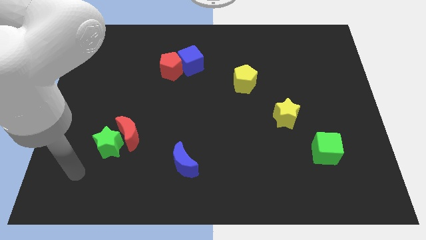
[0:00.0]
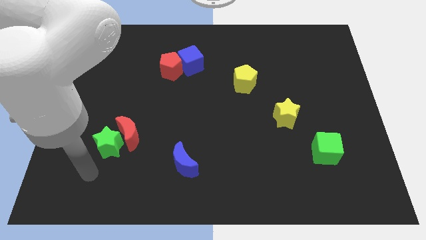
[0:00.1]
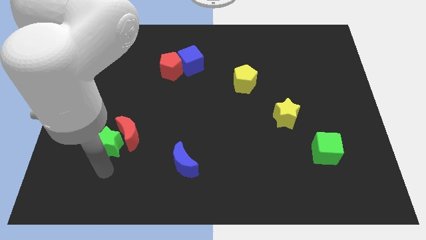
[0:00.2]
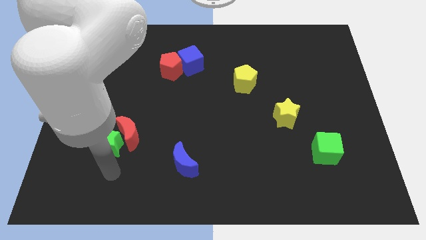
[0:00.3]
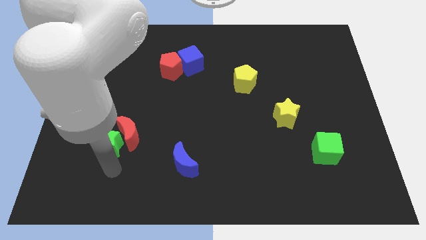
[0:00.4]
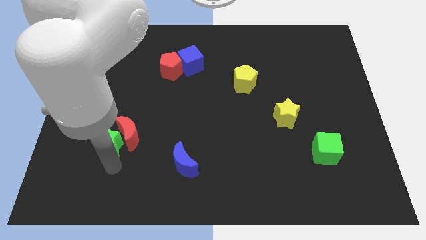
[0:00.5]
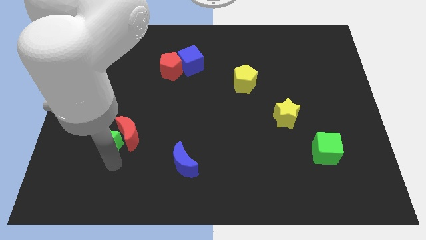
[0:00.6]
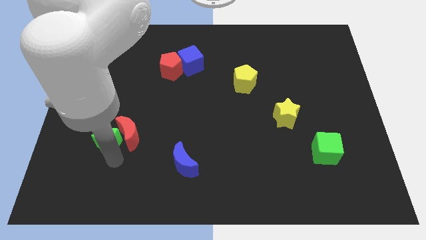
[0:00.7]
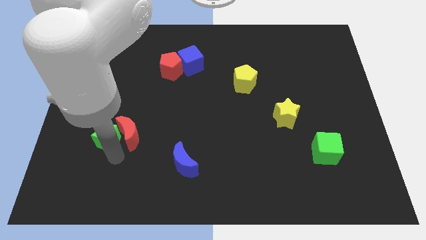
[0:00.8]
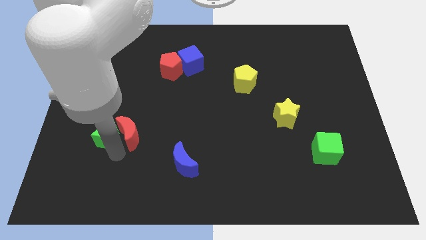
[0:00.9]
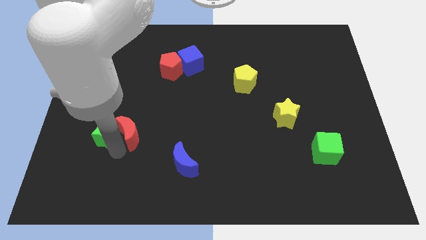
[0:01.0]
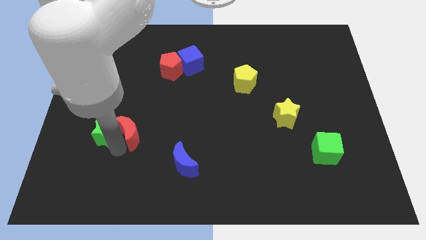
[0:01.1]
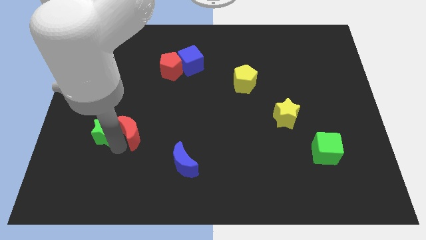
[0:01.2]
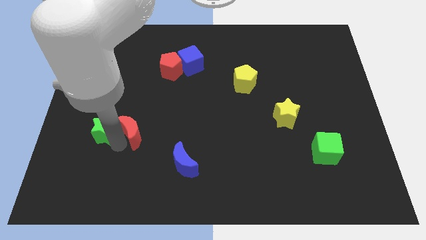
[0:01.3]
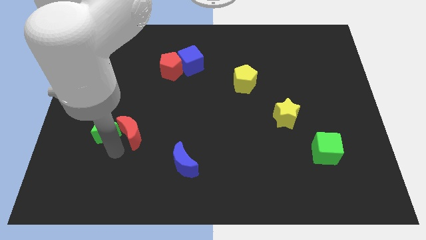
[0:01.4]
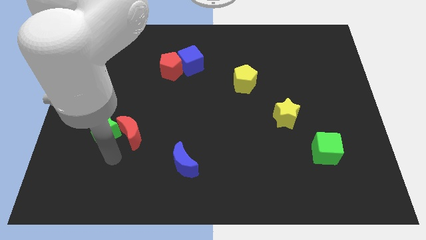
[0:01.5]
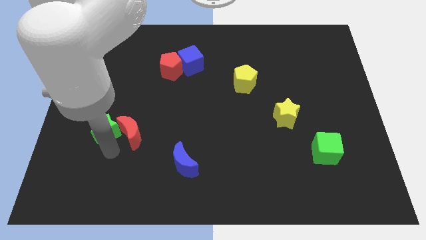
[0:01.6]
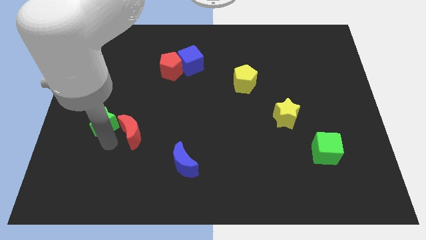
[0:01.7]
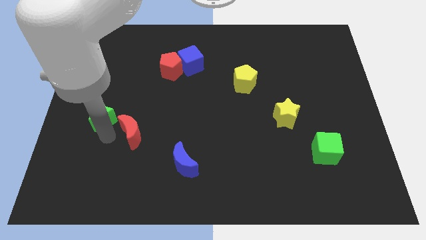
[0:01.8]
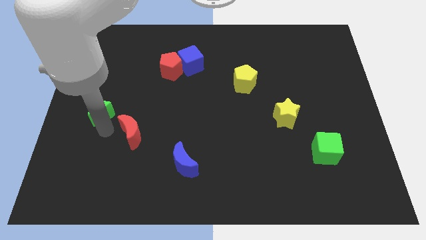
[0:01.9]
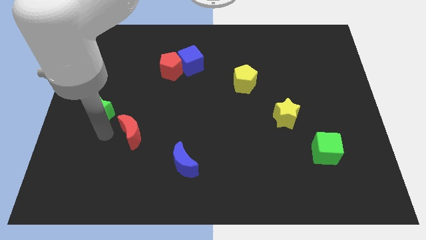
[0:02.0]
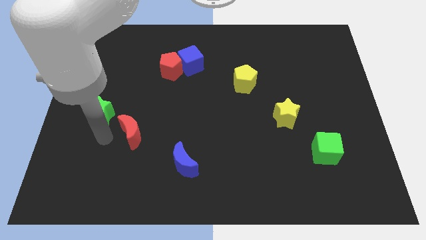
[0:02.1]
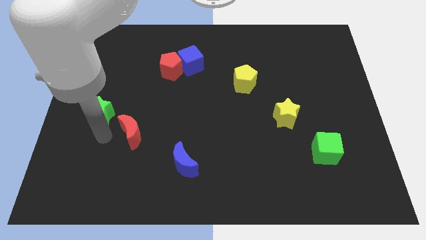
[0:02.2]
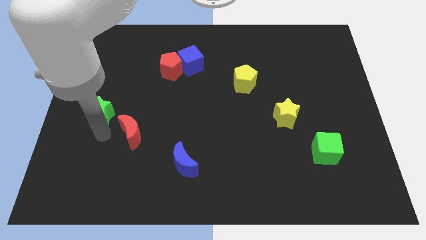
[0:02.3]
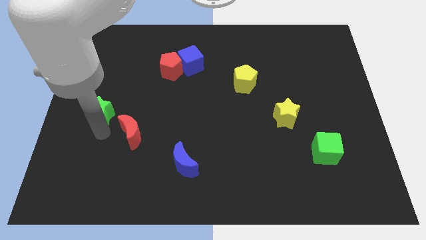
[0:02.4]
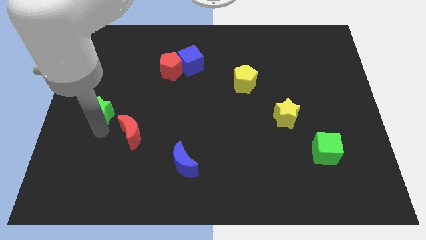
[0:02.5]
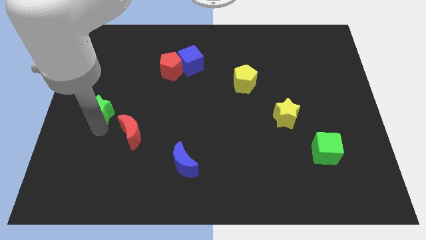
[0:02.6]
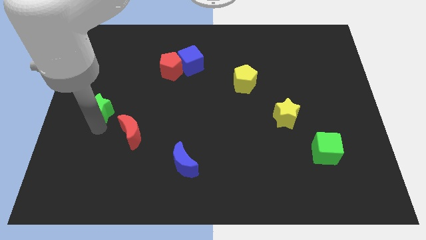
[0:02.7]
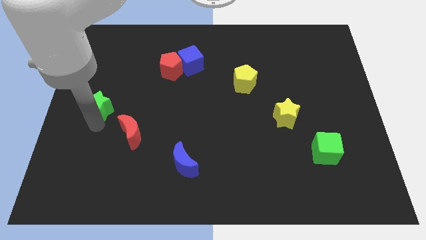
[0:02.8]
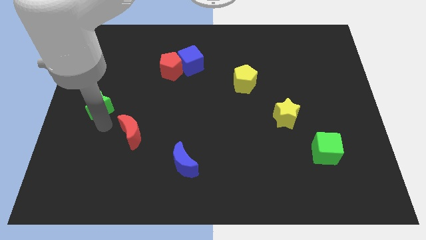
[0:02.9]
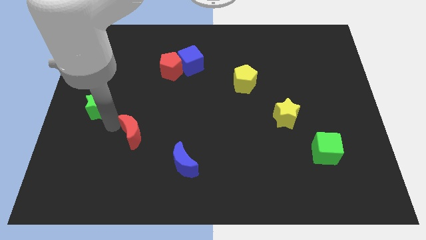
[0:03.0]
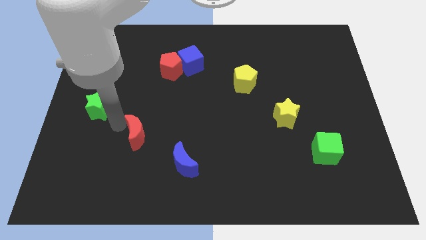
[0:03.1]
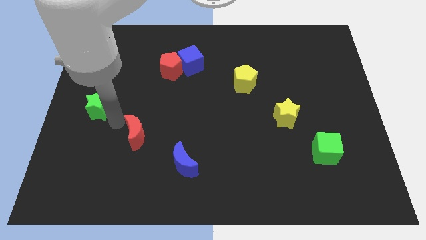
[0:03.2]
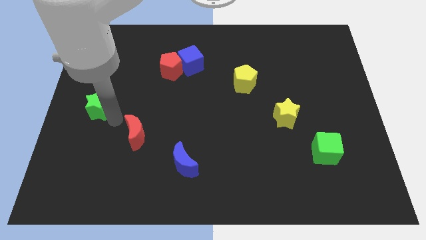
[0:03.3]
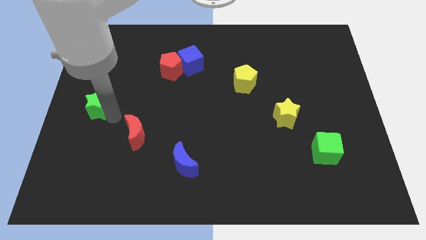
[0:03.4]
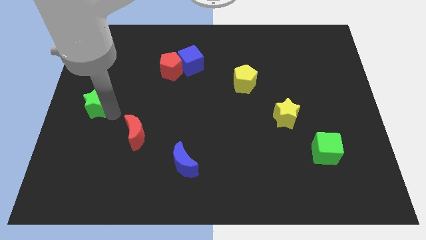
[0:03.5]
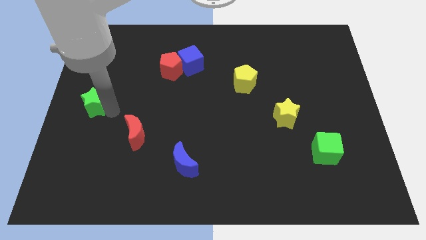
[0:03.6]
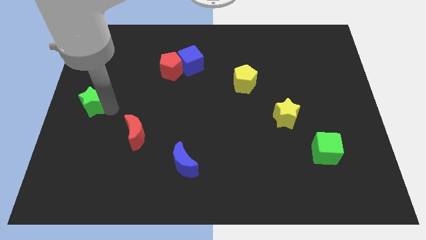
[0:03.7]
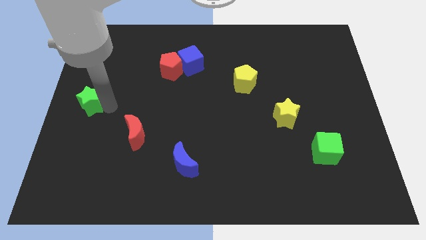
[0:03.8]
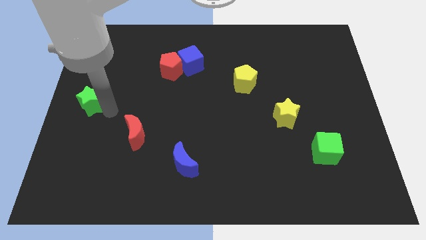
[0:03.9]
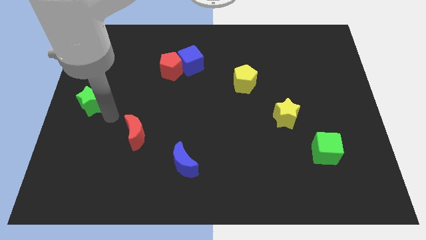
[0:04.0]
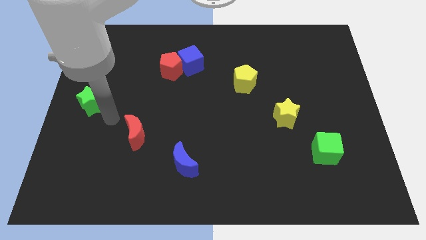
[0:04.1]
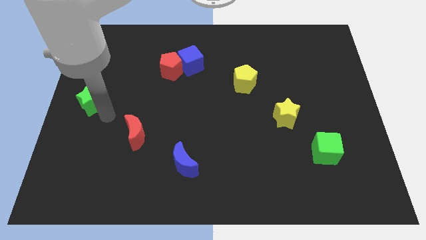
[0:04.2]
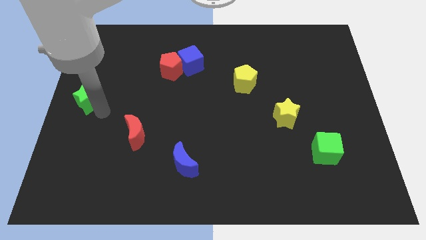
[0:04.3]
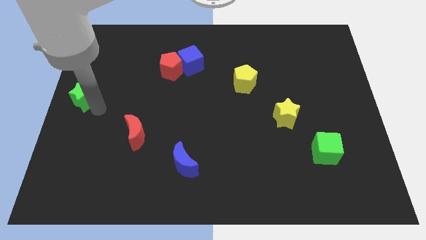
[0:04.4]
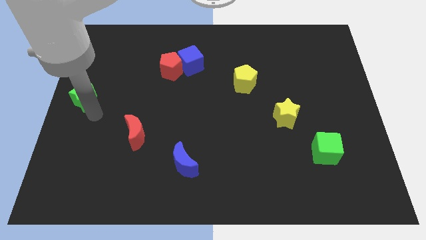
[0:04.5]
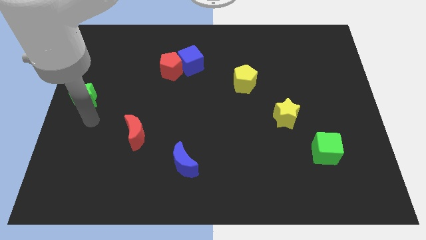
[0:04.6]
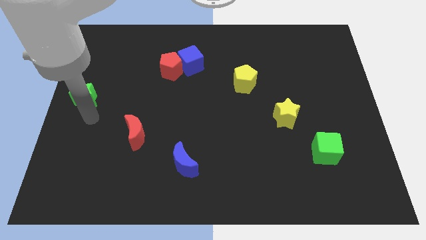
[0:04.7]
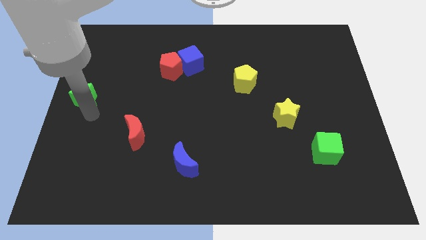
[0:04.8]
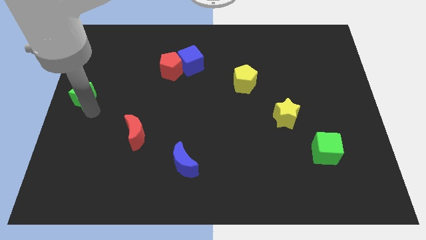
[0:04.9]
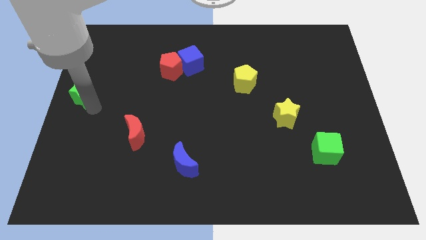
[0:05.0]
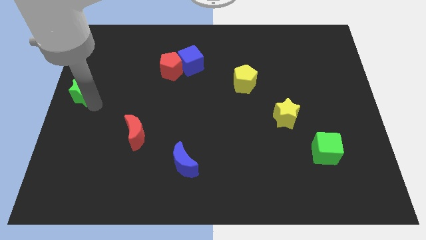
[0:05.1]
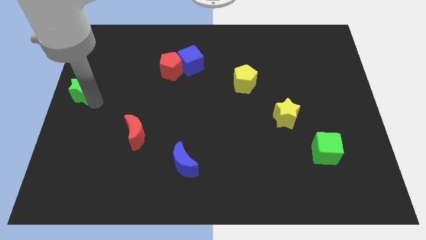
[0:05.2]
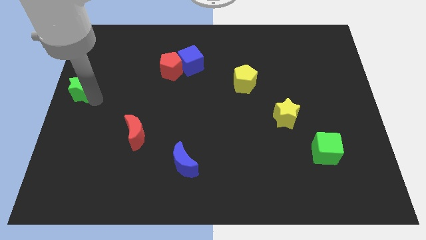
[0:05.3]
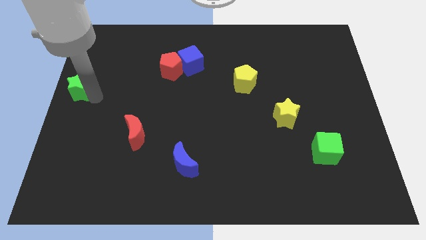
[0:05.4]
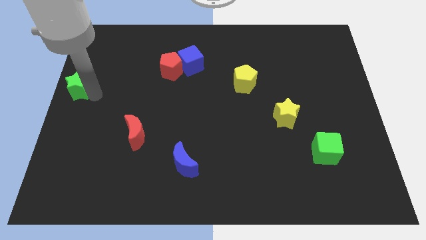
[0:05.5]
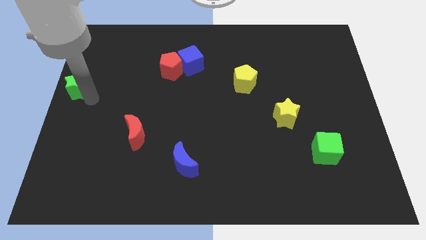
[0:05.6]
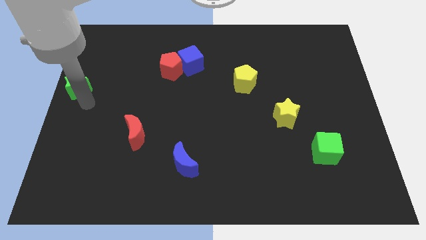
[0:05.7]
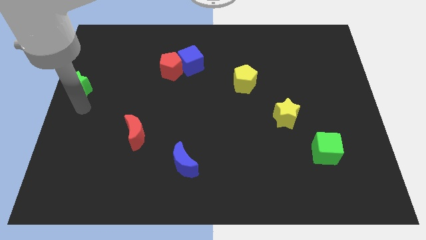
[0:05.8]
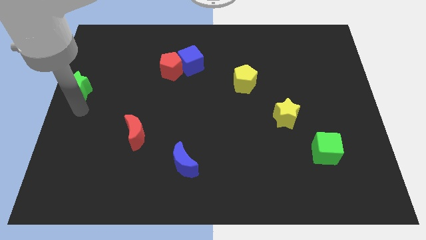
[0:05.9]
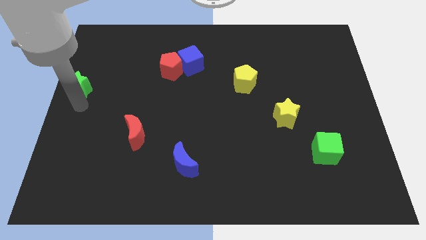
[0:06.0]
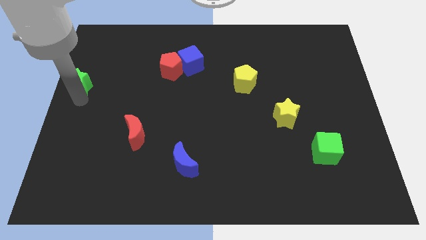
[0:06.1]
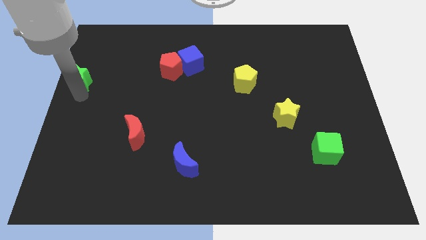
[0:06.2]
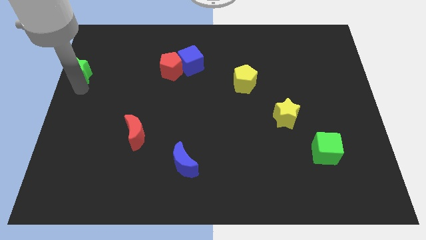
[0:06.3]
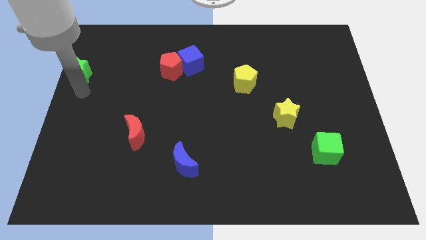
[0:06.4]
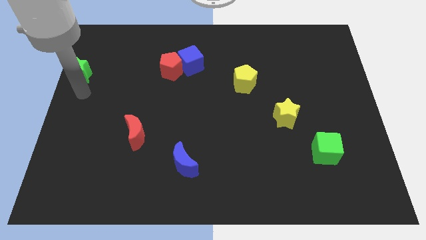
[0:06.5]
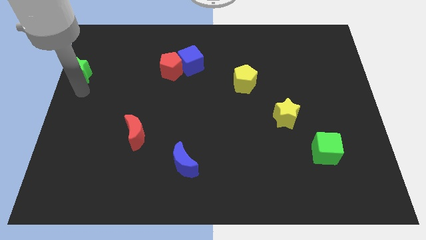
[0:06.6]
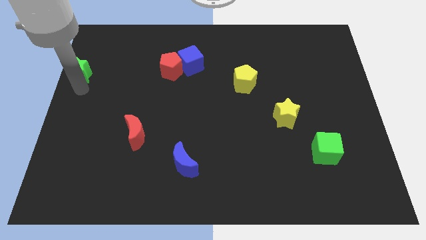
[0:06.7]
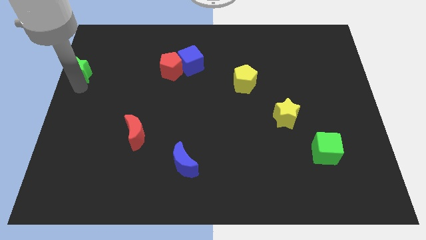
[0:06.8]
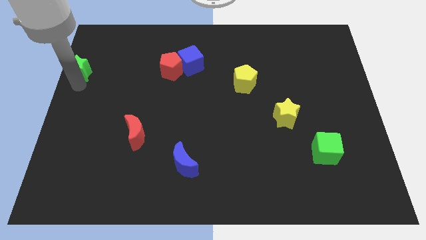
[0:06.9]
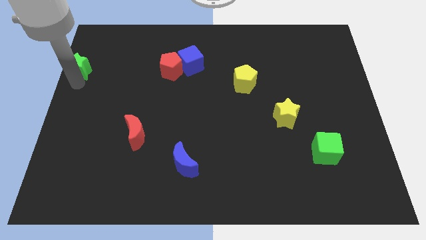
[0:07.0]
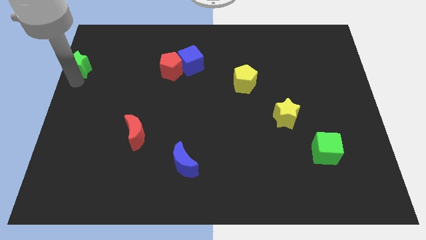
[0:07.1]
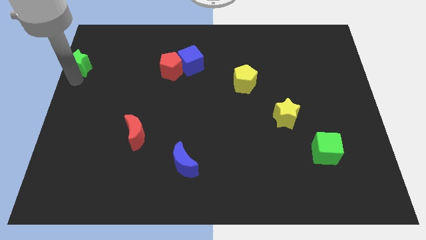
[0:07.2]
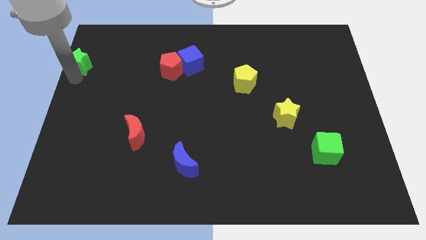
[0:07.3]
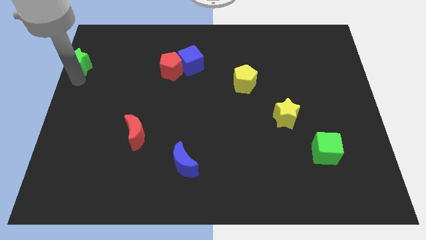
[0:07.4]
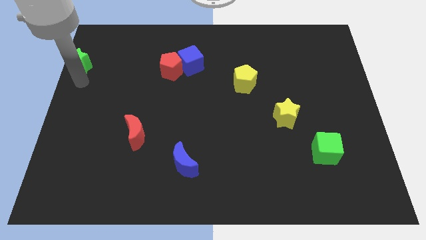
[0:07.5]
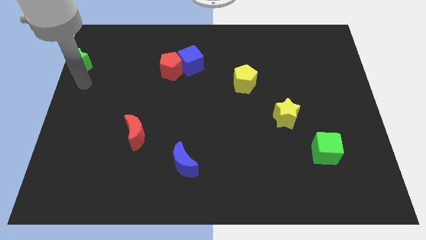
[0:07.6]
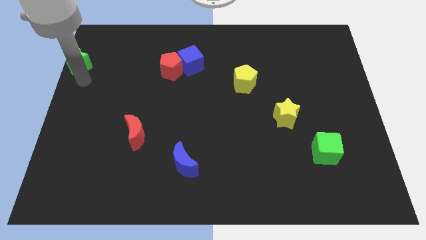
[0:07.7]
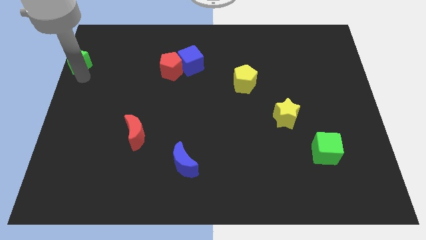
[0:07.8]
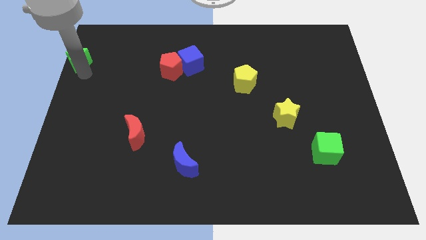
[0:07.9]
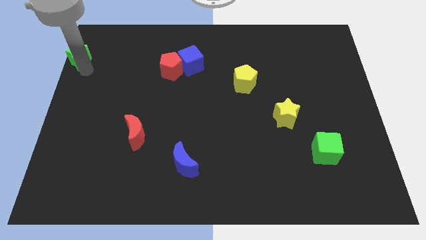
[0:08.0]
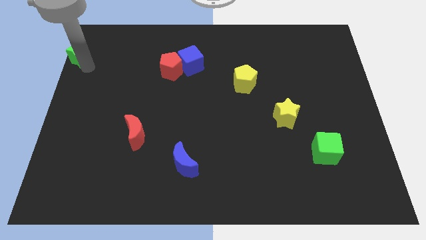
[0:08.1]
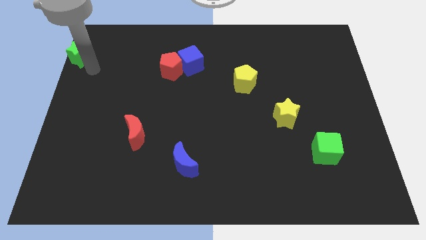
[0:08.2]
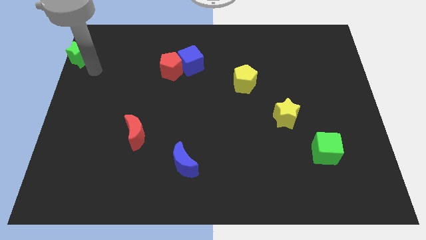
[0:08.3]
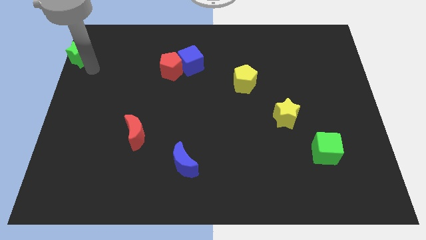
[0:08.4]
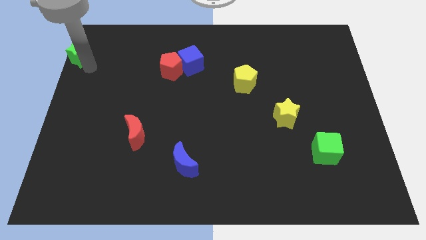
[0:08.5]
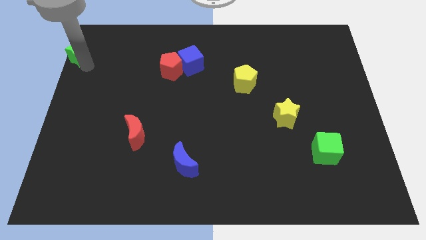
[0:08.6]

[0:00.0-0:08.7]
move the green star to the top left
